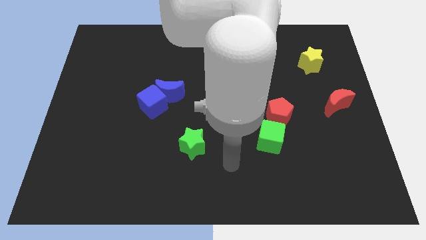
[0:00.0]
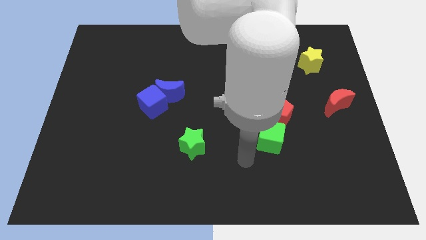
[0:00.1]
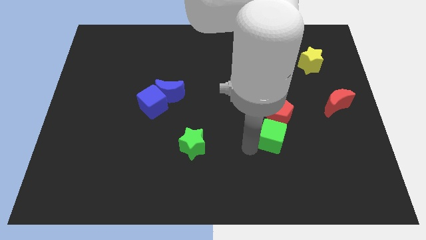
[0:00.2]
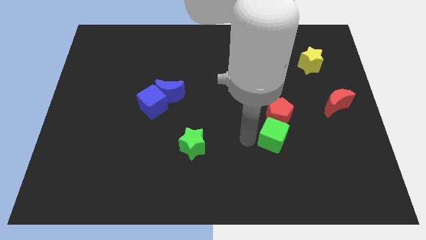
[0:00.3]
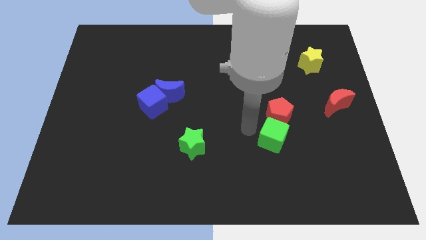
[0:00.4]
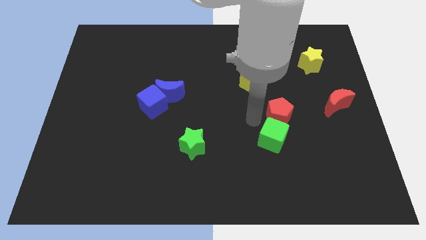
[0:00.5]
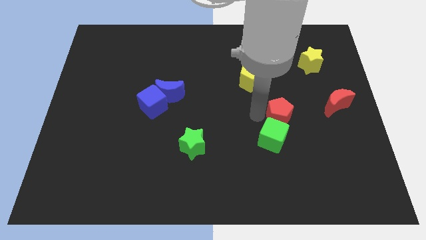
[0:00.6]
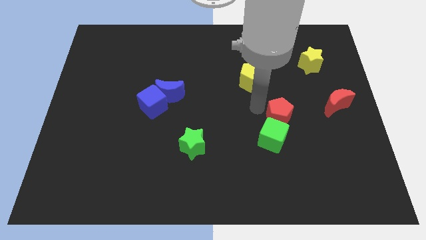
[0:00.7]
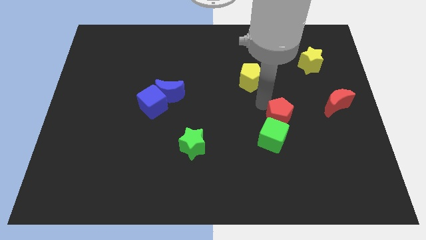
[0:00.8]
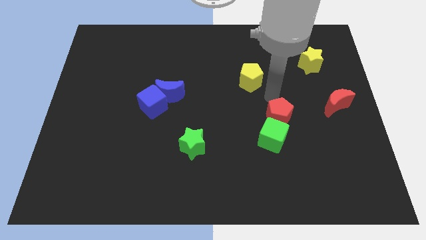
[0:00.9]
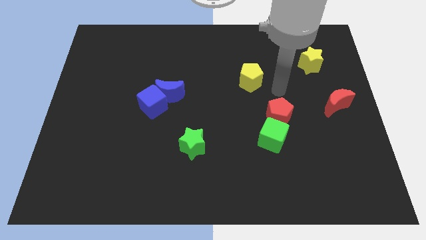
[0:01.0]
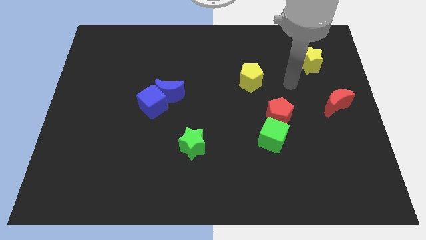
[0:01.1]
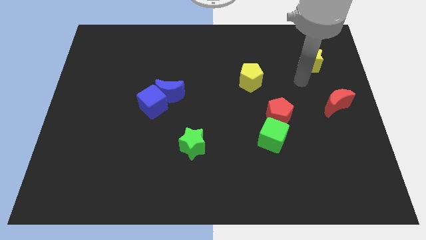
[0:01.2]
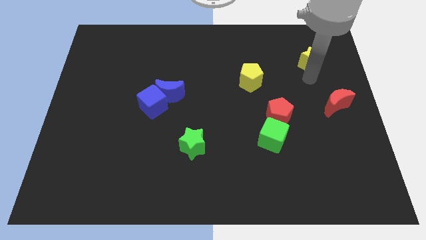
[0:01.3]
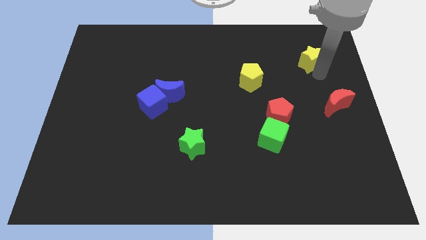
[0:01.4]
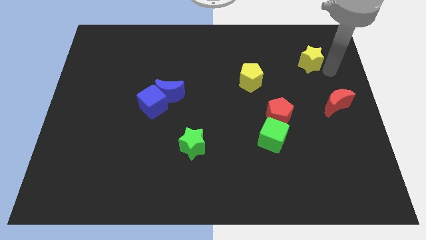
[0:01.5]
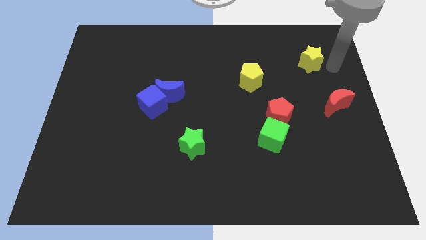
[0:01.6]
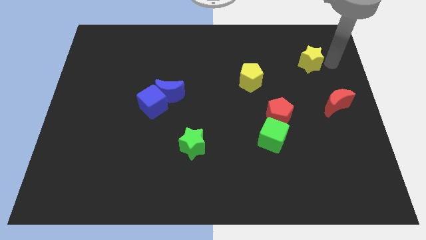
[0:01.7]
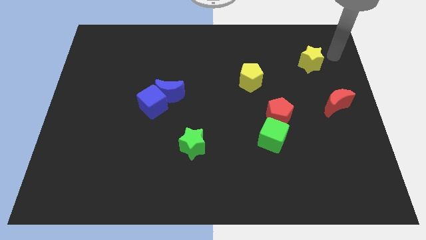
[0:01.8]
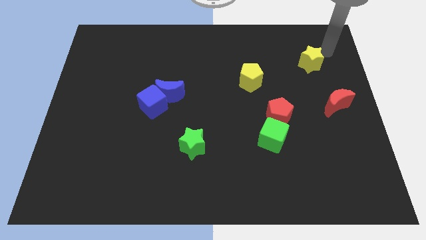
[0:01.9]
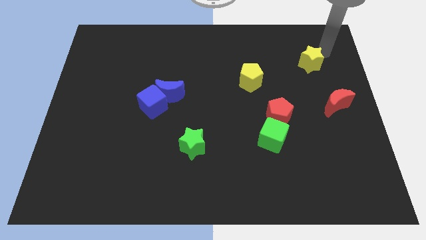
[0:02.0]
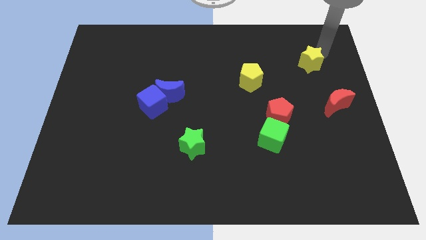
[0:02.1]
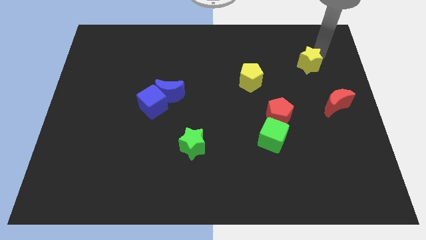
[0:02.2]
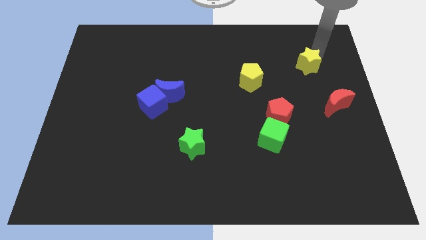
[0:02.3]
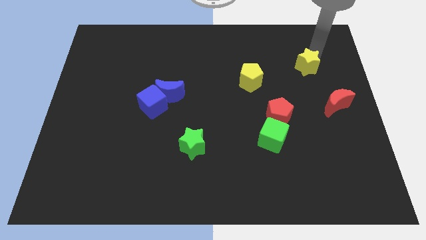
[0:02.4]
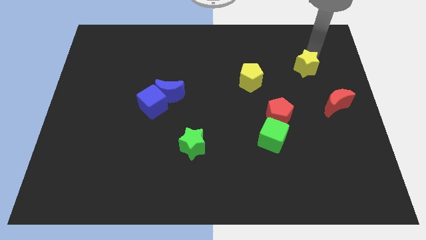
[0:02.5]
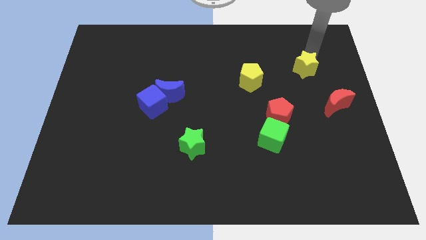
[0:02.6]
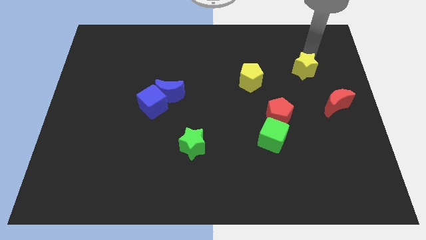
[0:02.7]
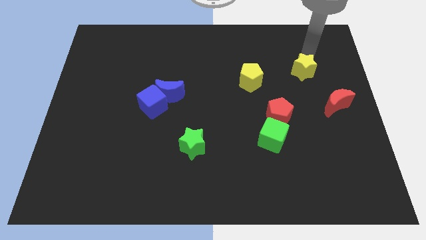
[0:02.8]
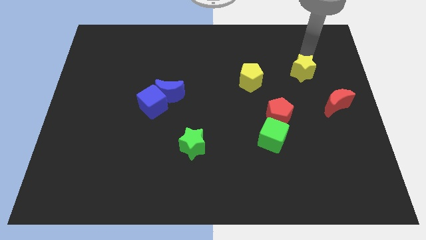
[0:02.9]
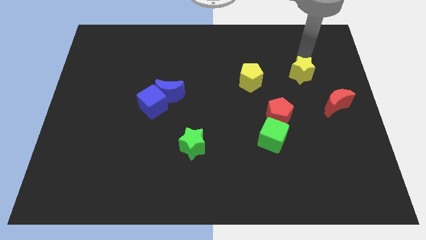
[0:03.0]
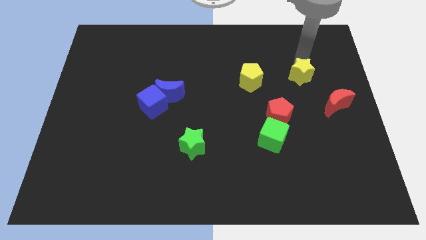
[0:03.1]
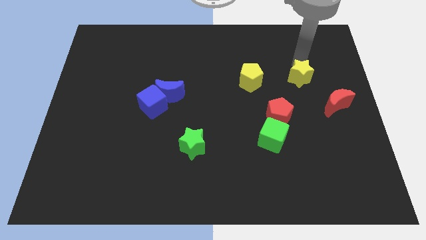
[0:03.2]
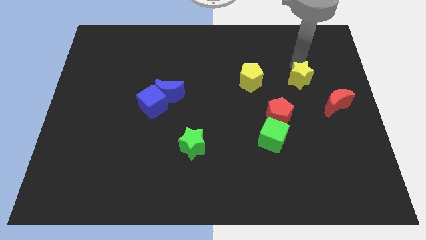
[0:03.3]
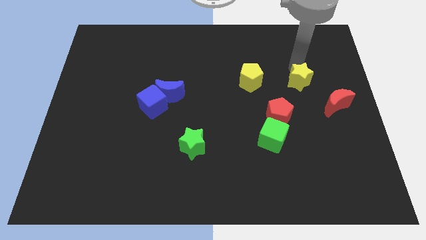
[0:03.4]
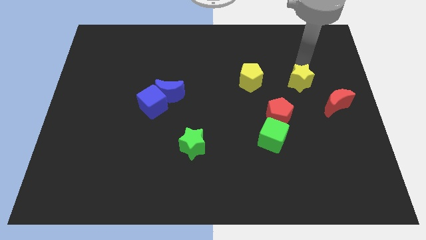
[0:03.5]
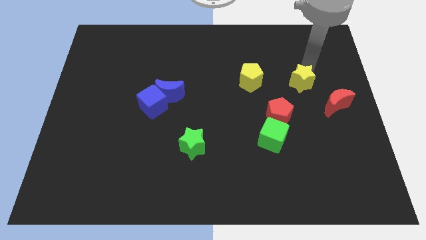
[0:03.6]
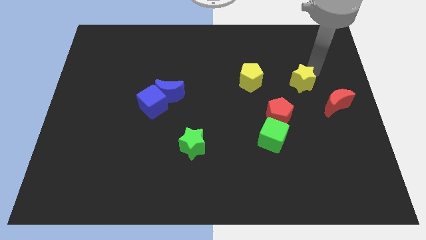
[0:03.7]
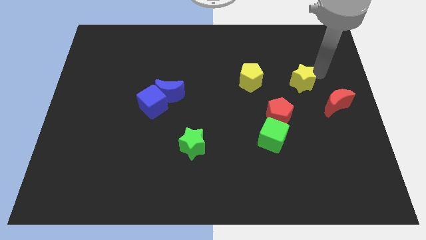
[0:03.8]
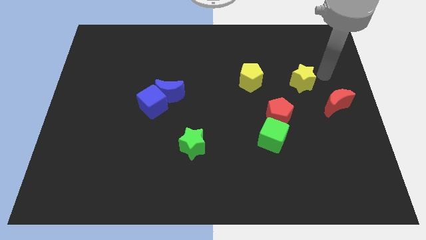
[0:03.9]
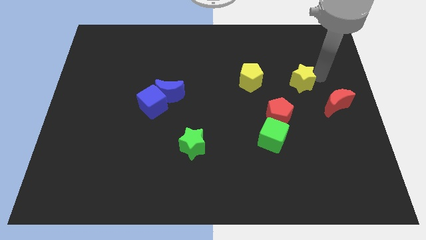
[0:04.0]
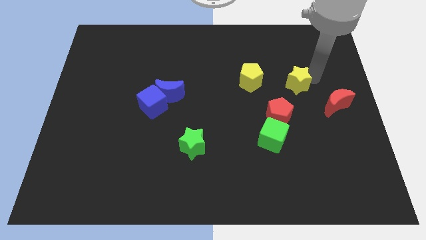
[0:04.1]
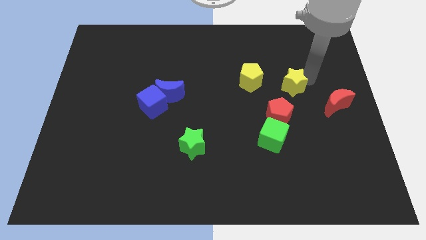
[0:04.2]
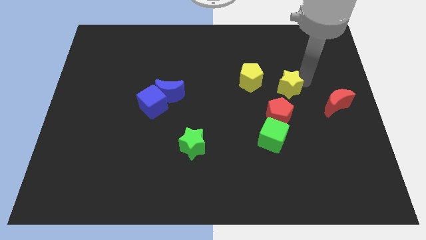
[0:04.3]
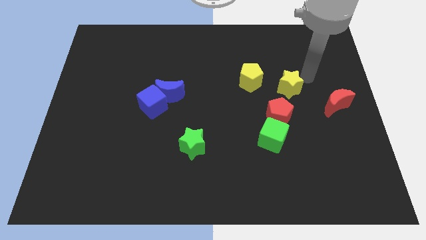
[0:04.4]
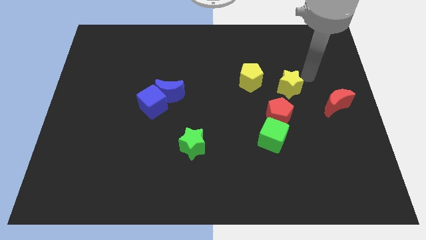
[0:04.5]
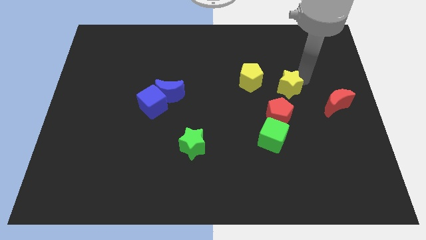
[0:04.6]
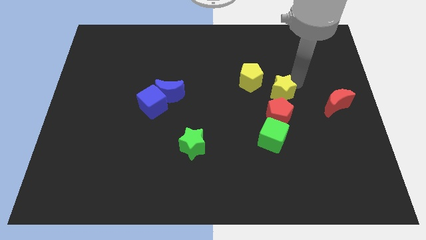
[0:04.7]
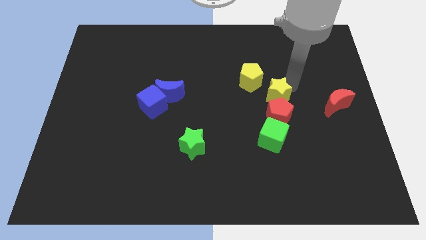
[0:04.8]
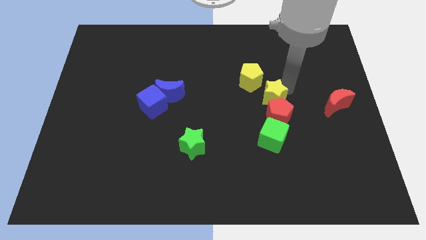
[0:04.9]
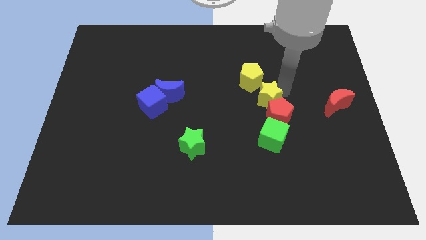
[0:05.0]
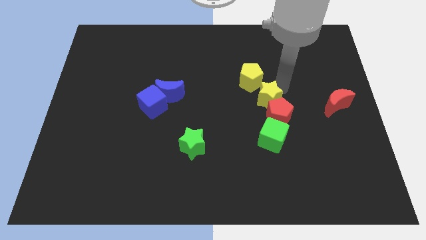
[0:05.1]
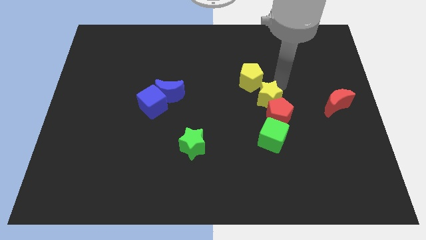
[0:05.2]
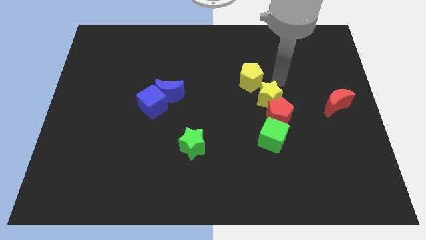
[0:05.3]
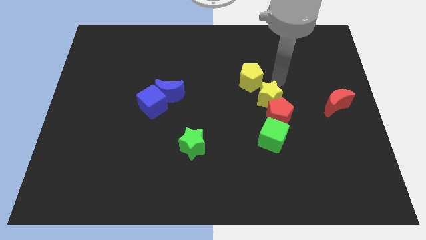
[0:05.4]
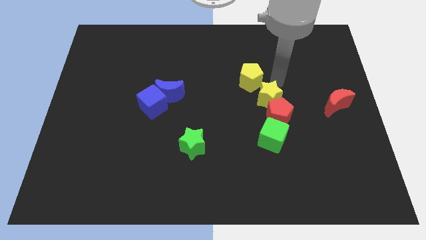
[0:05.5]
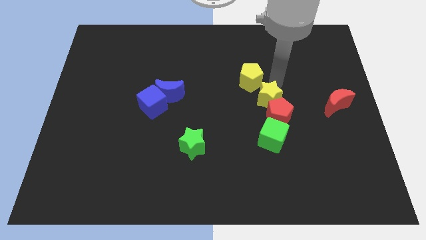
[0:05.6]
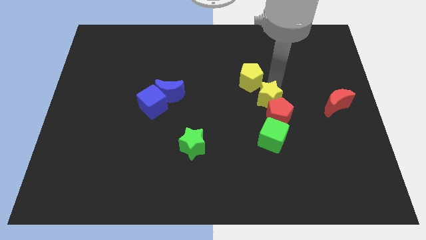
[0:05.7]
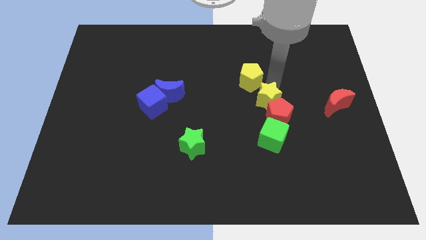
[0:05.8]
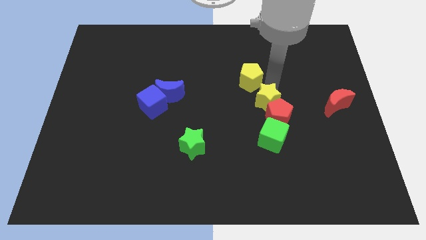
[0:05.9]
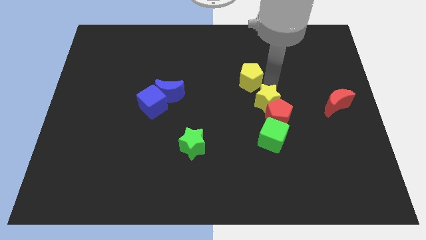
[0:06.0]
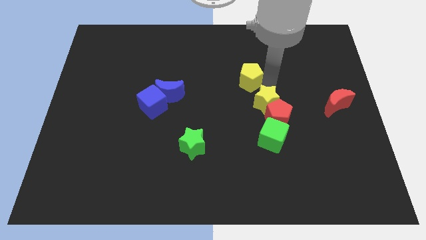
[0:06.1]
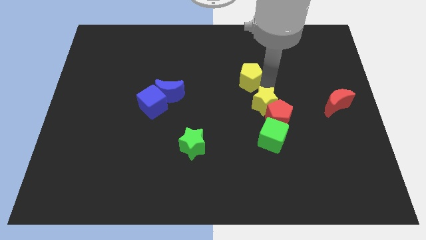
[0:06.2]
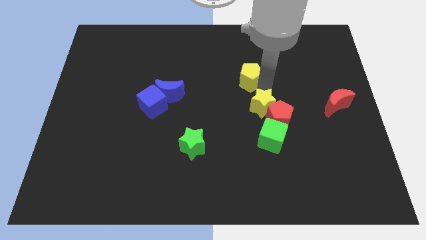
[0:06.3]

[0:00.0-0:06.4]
slide the yellow star downwards and left

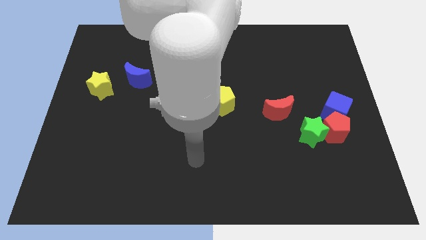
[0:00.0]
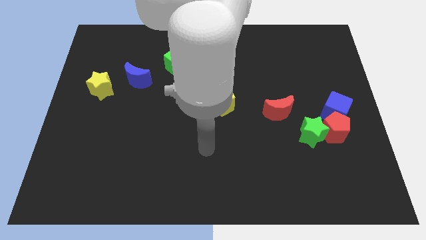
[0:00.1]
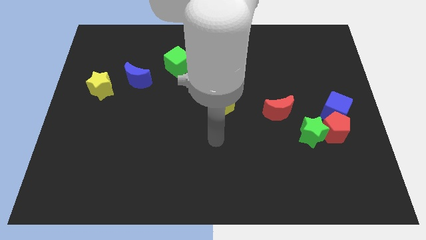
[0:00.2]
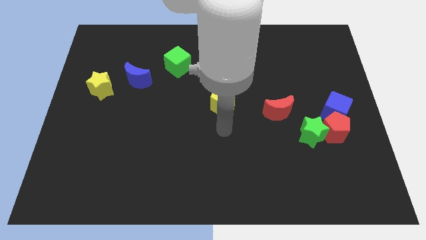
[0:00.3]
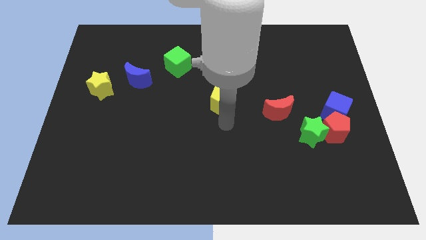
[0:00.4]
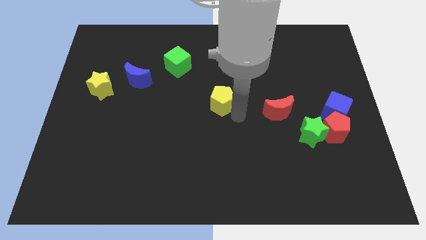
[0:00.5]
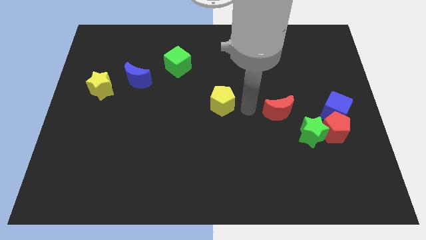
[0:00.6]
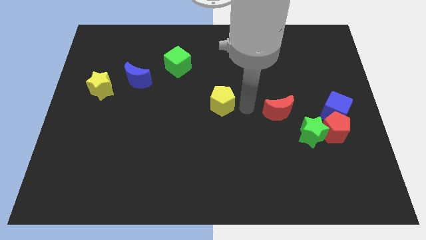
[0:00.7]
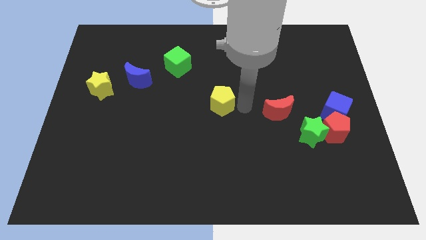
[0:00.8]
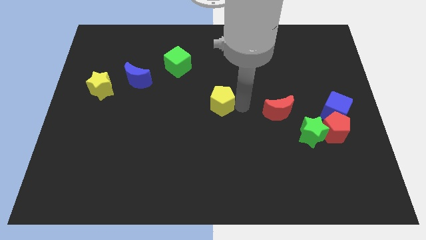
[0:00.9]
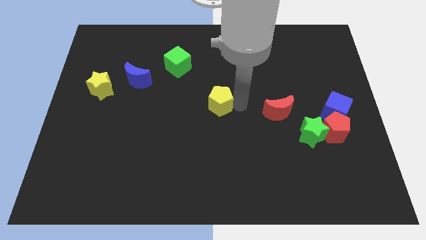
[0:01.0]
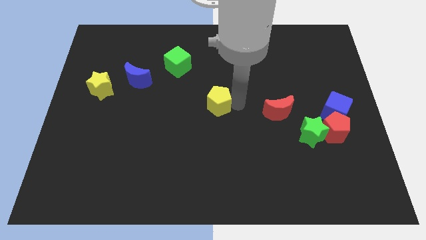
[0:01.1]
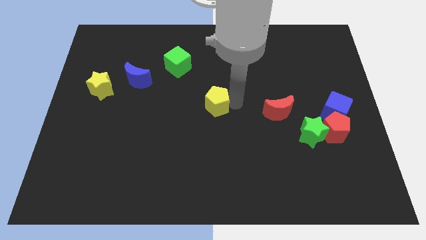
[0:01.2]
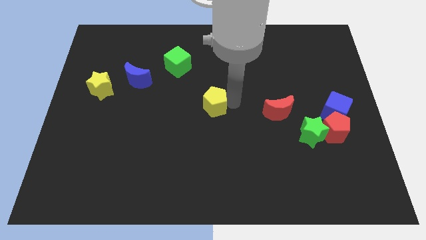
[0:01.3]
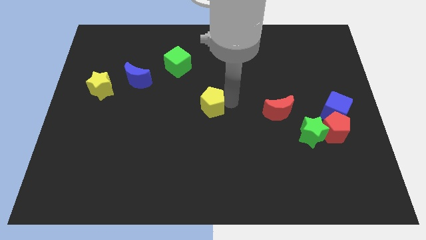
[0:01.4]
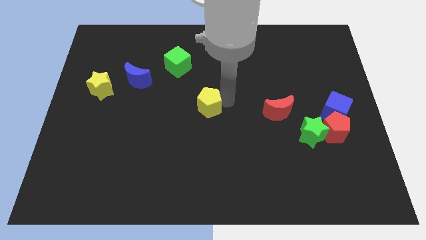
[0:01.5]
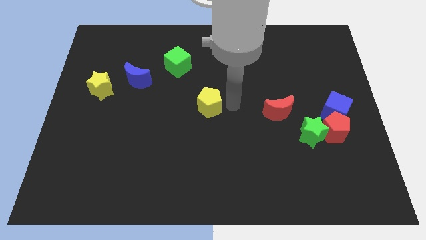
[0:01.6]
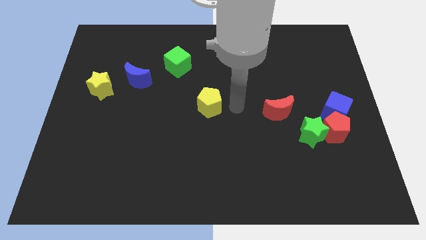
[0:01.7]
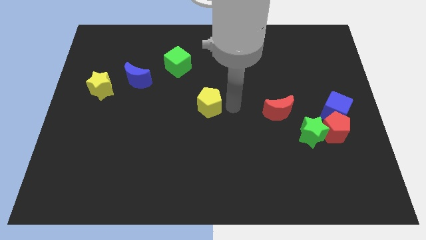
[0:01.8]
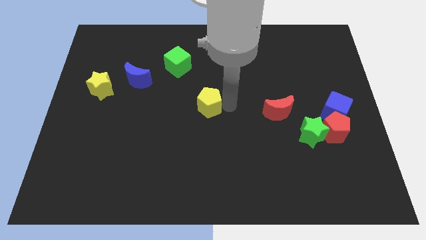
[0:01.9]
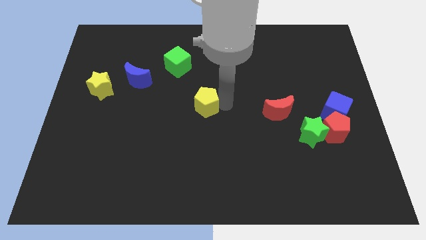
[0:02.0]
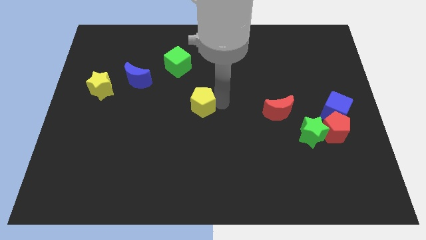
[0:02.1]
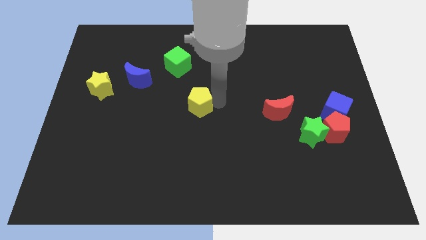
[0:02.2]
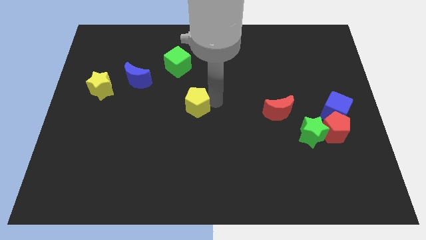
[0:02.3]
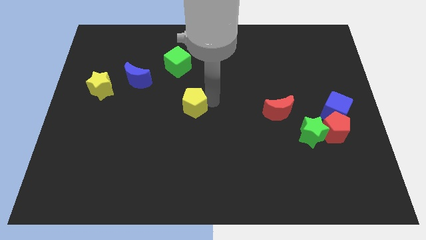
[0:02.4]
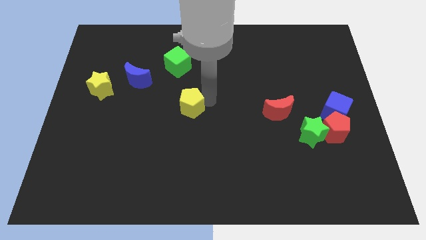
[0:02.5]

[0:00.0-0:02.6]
slightly push the yellow pentagon to the left
